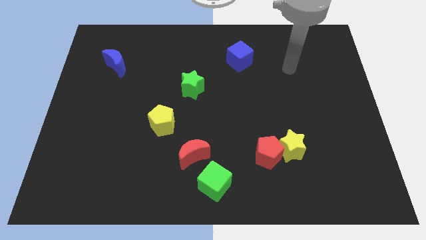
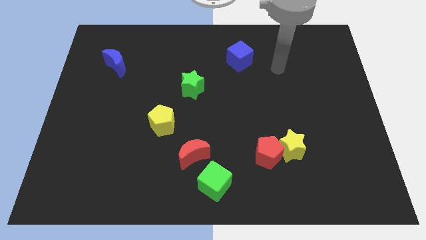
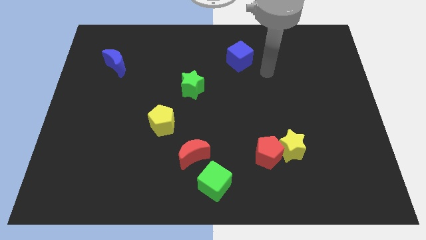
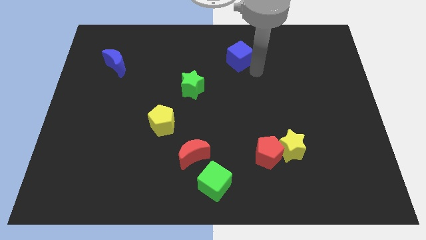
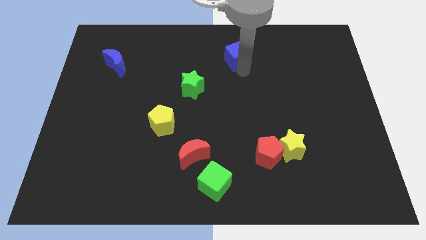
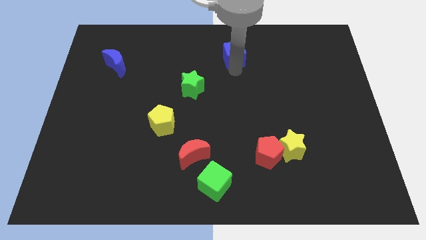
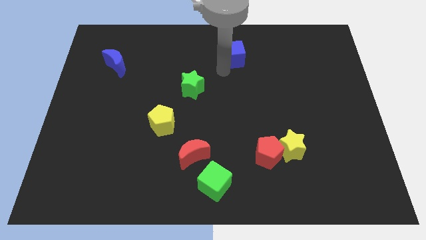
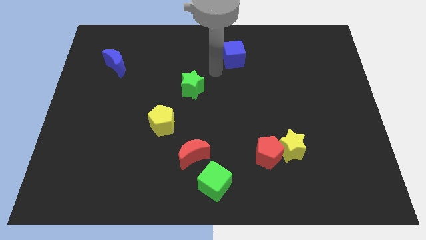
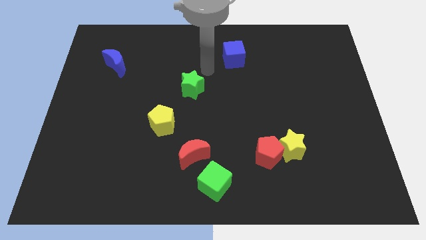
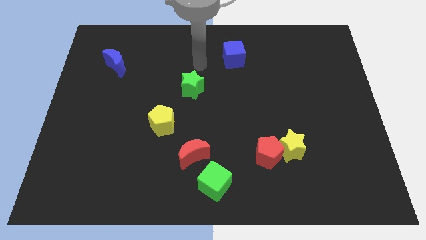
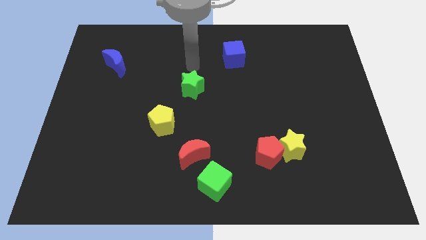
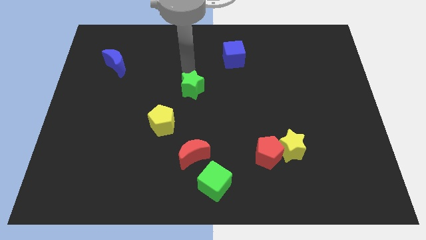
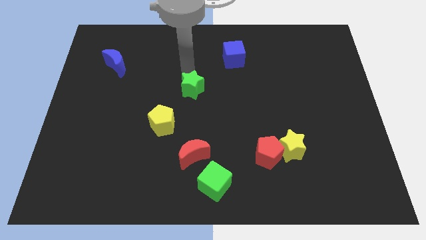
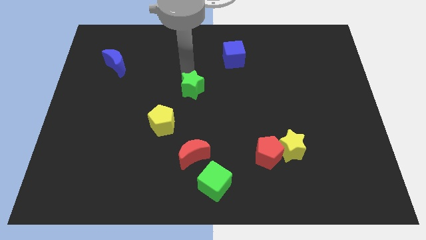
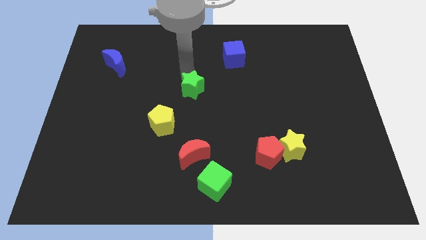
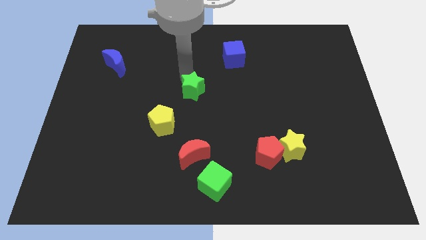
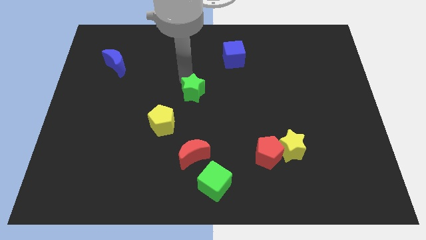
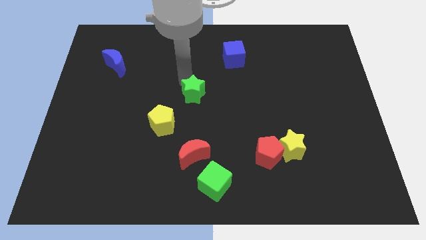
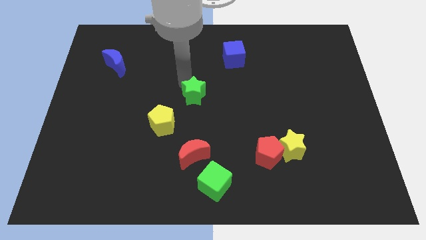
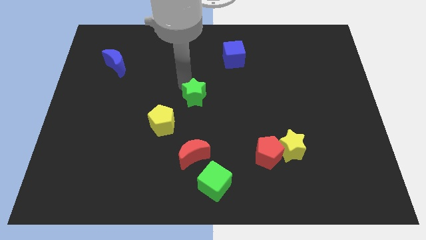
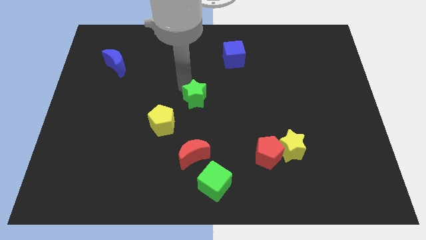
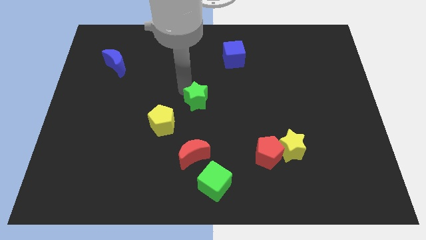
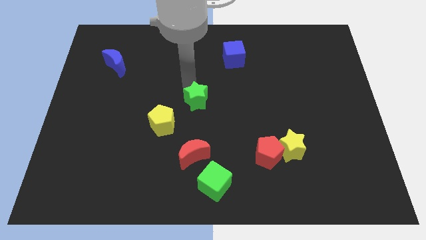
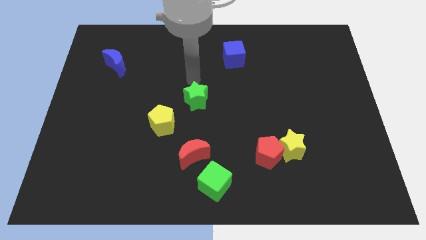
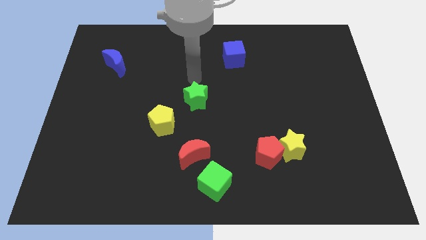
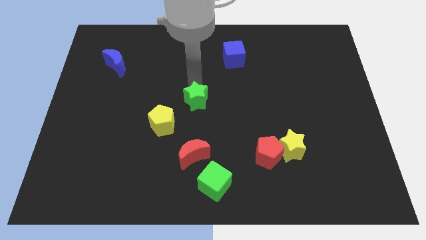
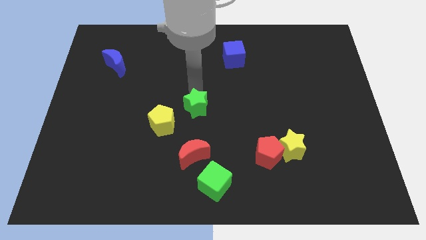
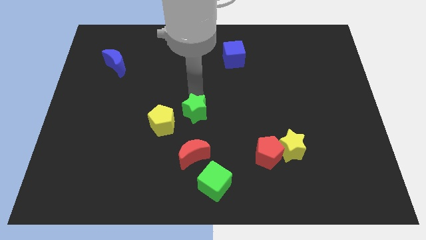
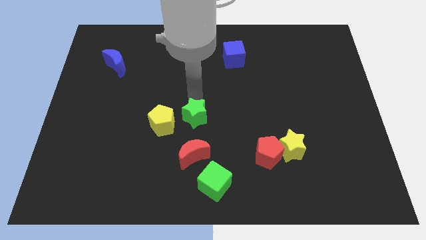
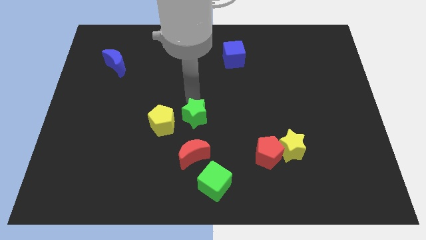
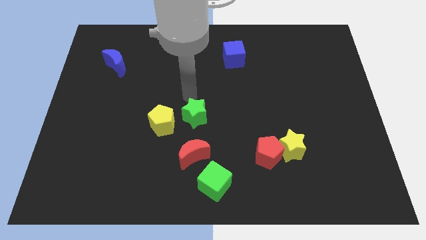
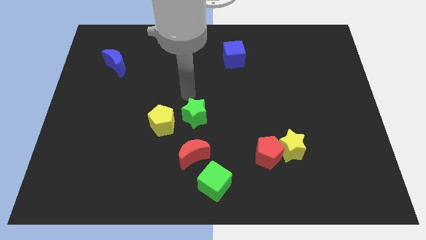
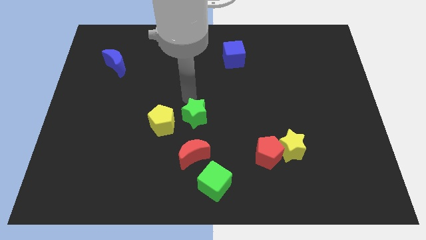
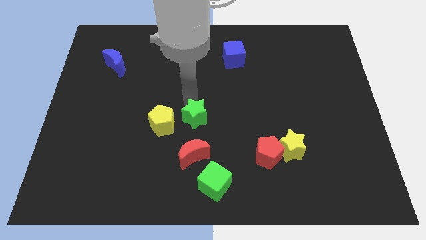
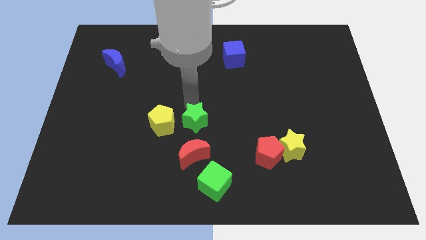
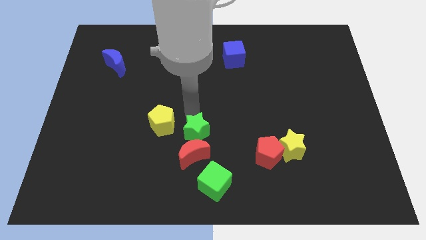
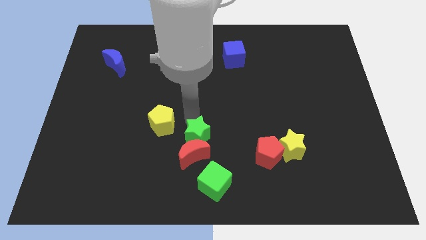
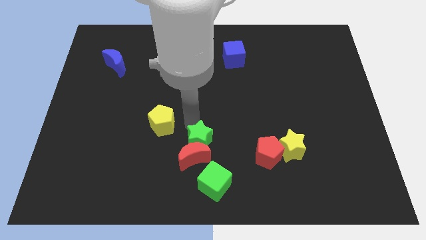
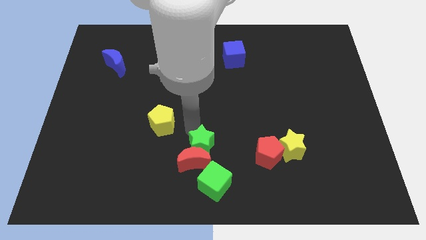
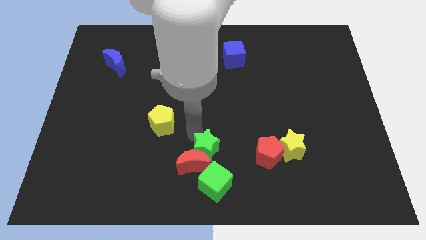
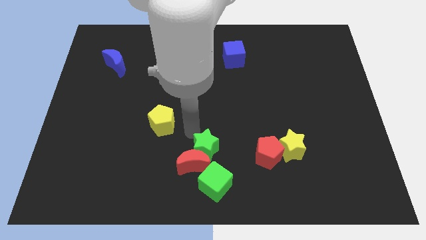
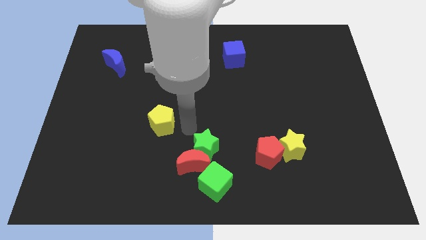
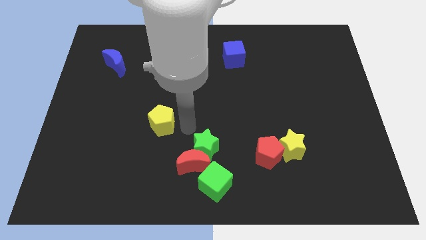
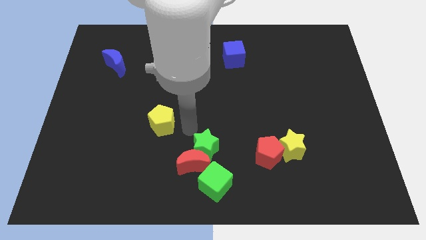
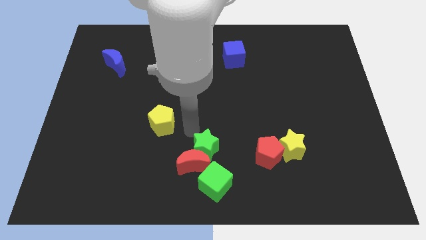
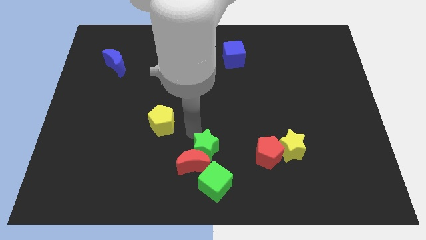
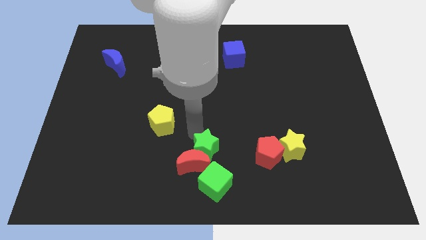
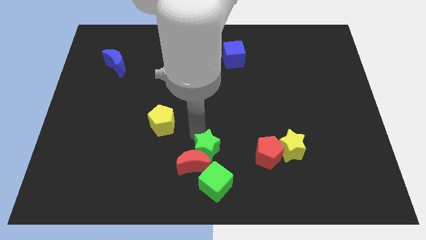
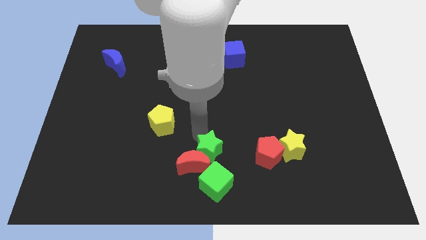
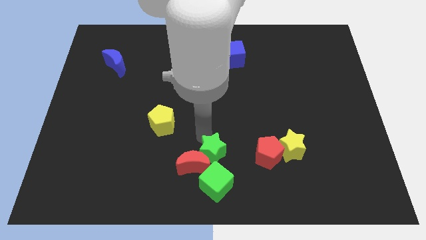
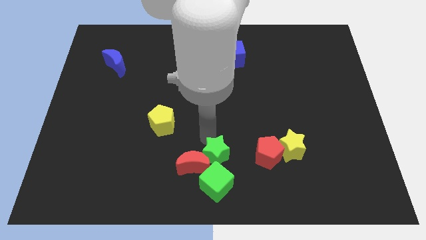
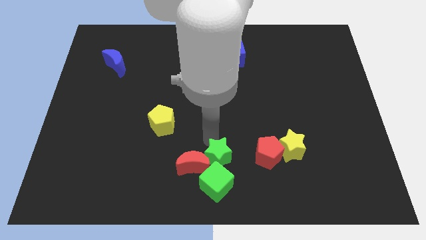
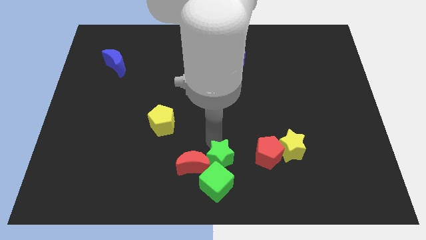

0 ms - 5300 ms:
push the green star towards the green cube

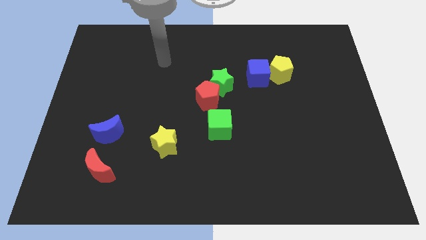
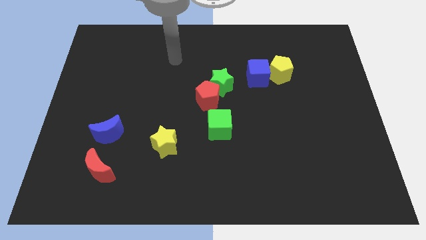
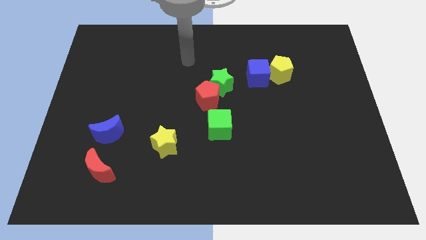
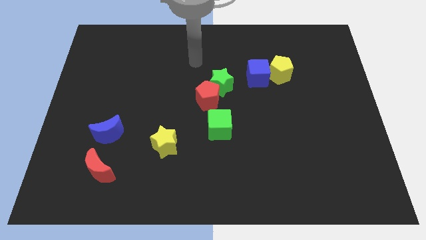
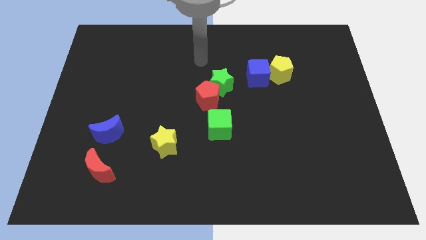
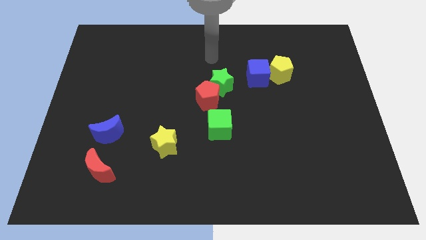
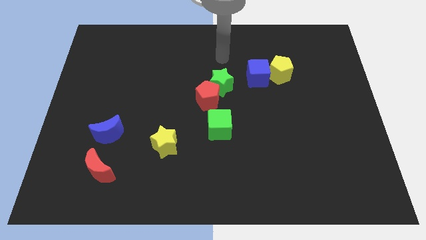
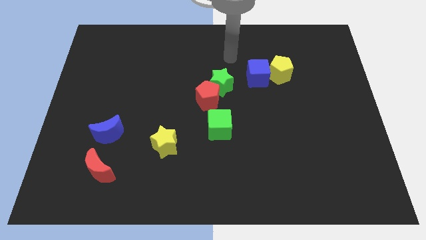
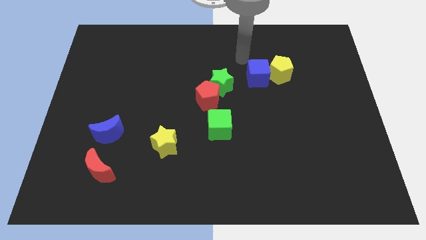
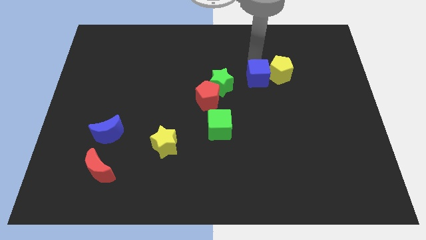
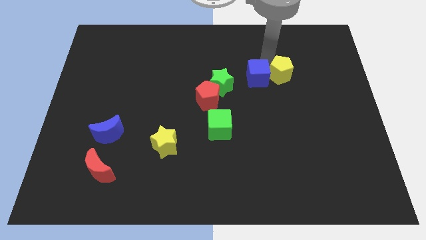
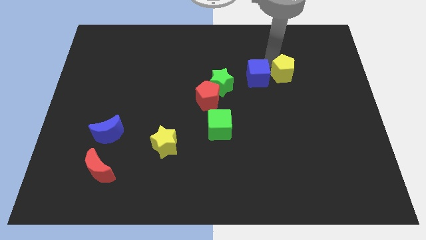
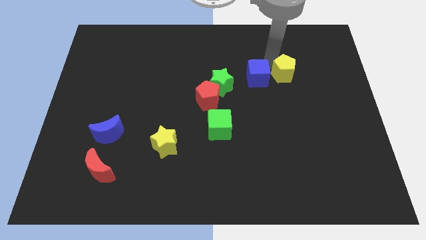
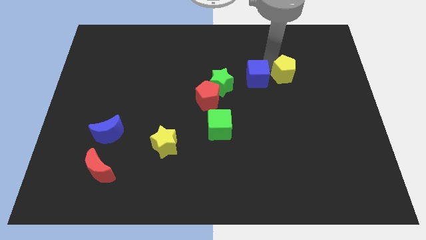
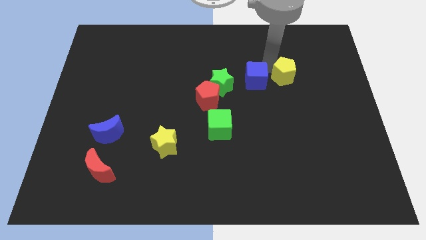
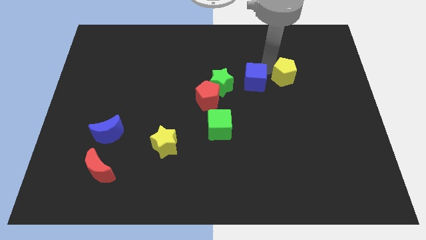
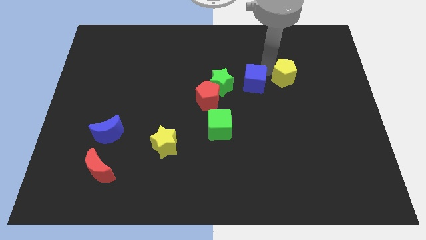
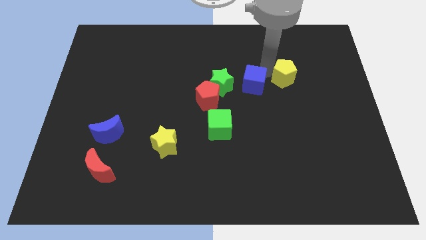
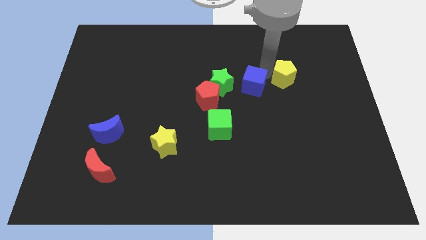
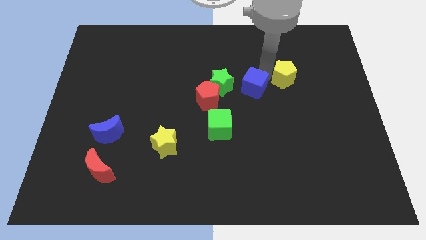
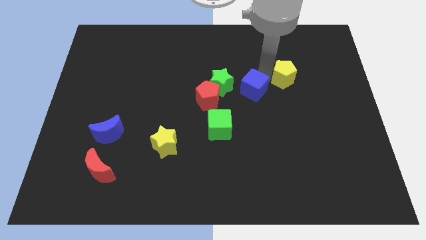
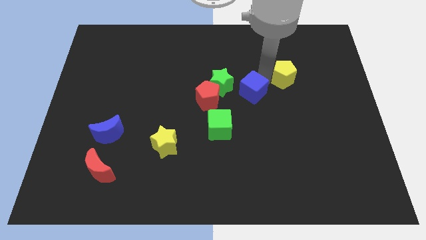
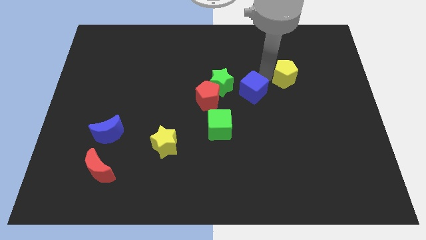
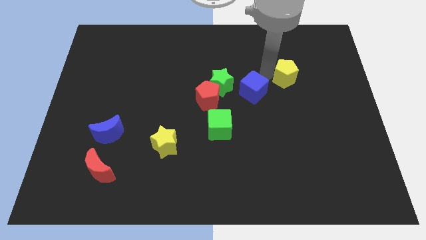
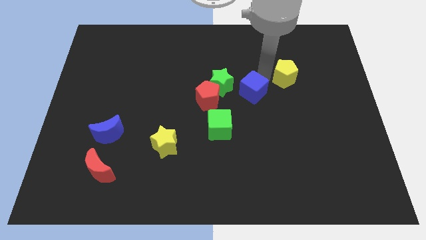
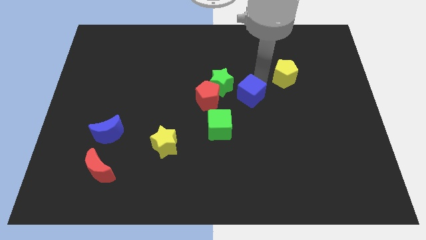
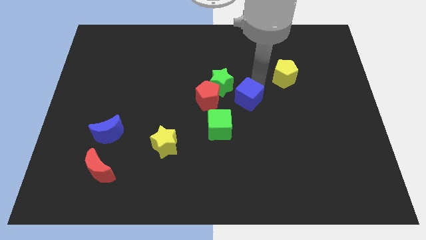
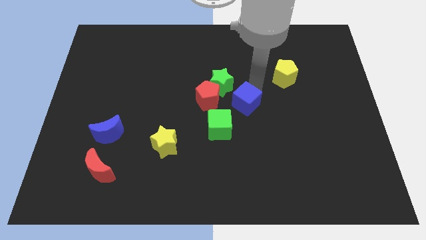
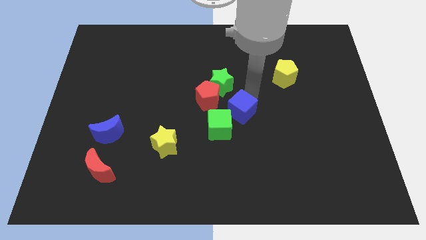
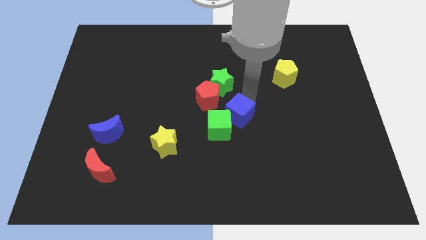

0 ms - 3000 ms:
slide the blue cube towards the green cube
